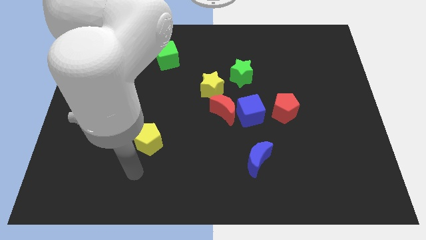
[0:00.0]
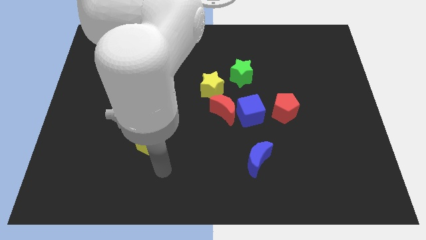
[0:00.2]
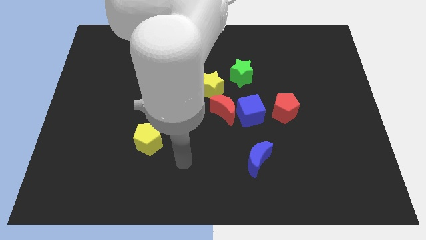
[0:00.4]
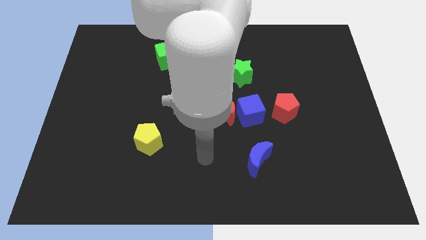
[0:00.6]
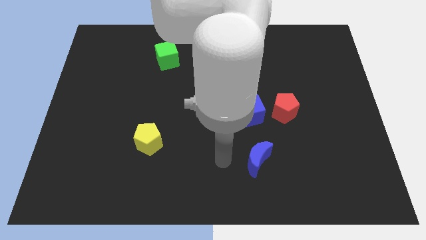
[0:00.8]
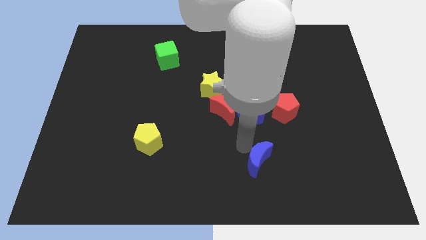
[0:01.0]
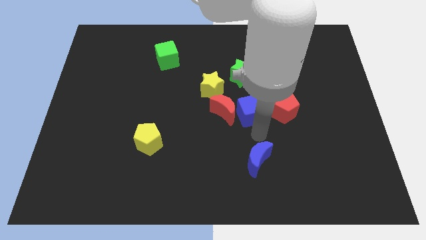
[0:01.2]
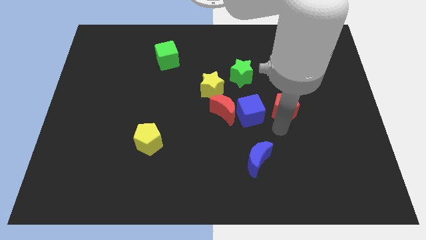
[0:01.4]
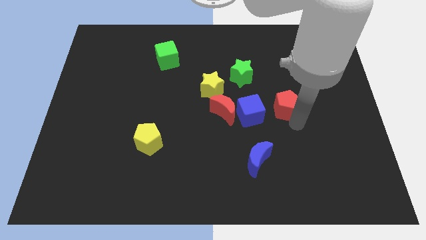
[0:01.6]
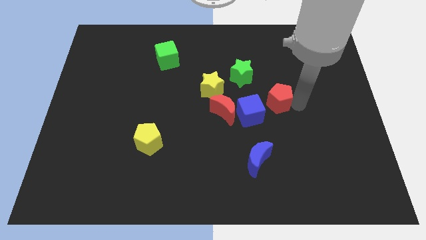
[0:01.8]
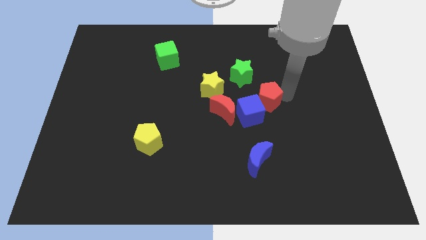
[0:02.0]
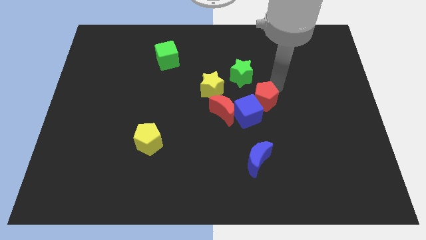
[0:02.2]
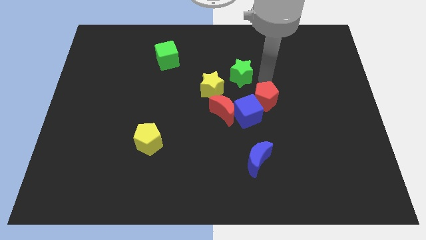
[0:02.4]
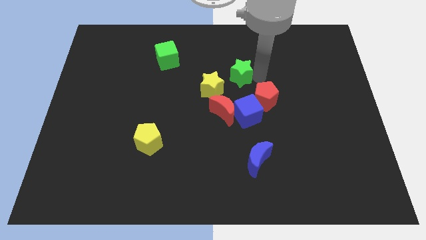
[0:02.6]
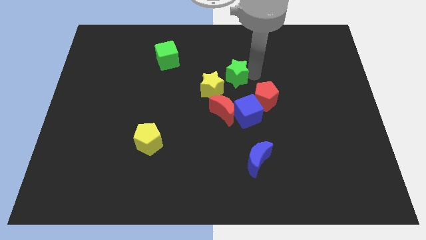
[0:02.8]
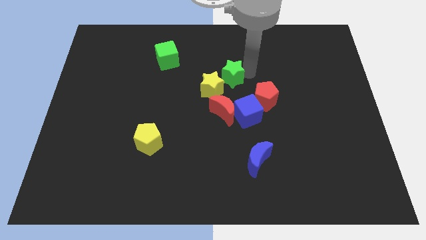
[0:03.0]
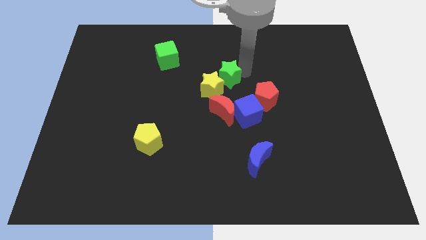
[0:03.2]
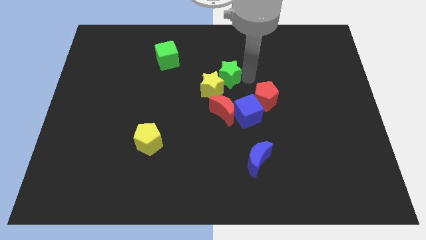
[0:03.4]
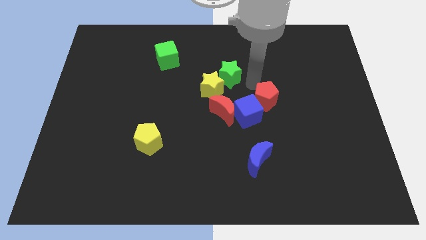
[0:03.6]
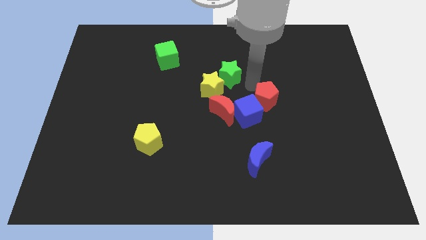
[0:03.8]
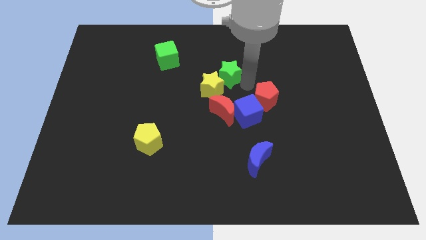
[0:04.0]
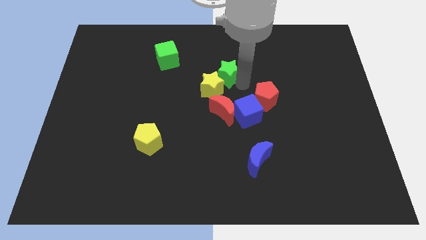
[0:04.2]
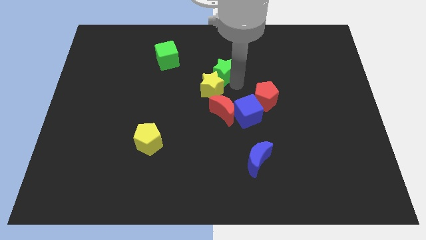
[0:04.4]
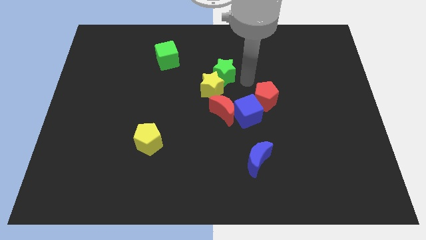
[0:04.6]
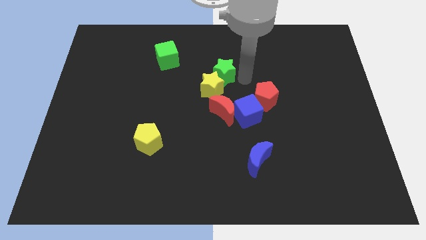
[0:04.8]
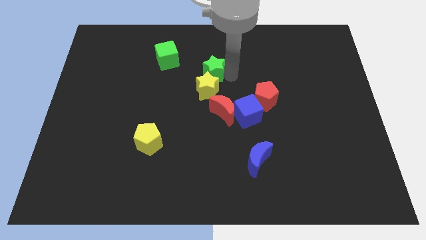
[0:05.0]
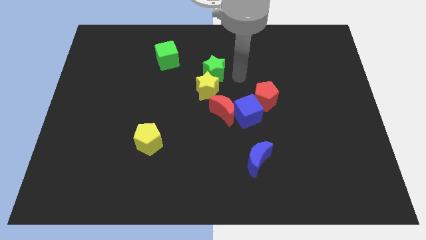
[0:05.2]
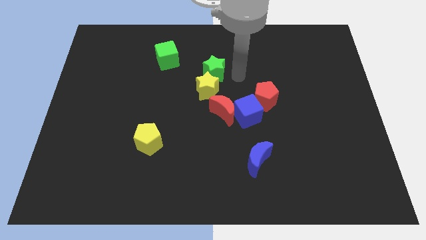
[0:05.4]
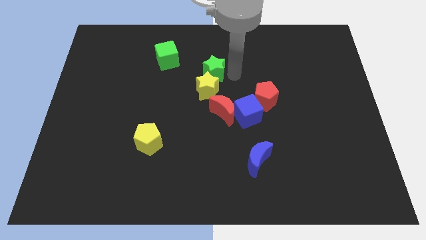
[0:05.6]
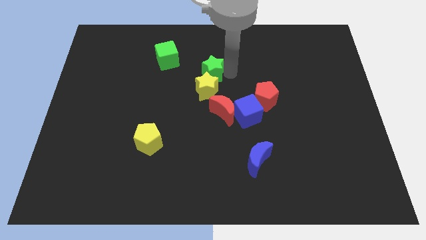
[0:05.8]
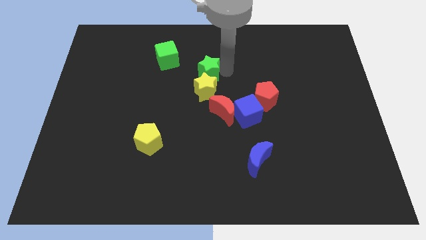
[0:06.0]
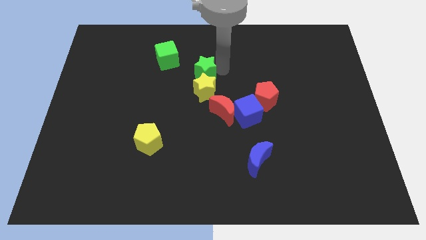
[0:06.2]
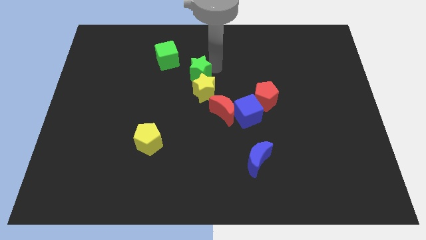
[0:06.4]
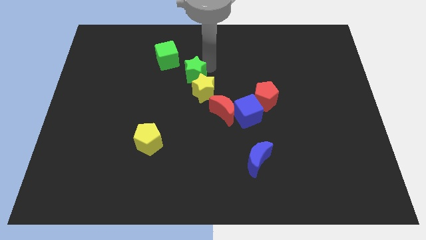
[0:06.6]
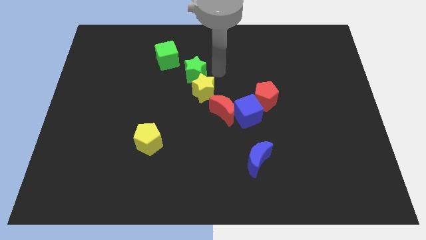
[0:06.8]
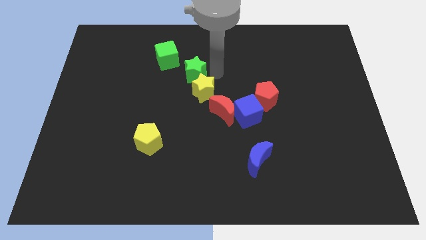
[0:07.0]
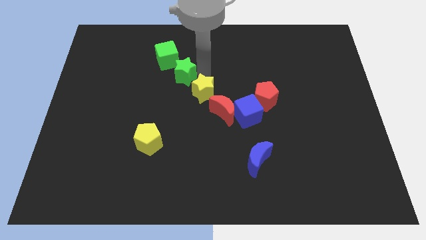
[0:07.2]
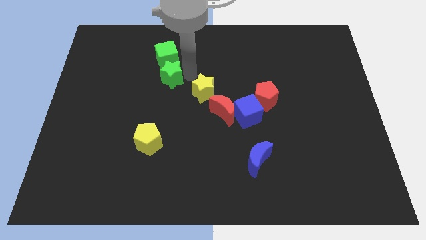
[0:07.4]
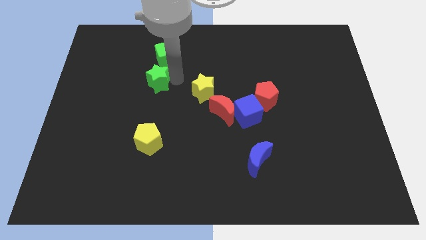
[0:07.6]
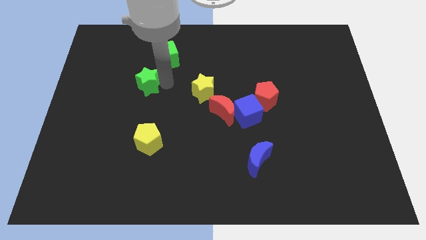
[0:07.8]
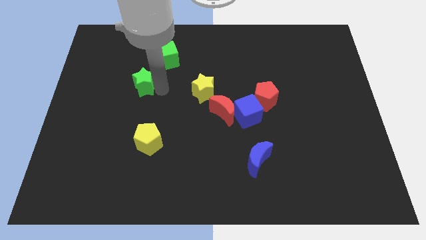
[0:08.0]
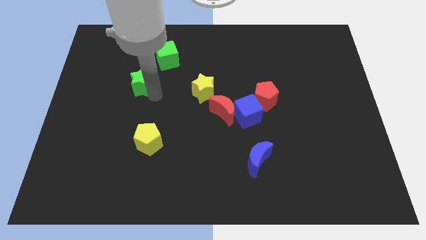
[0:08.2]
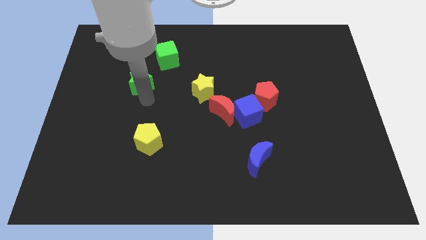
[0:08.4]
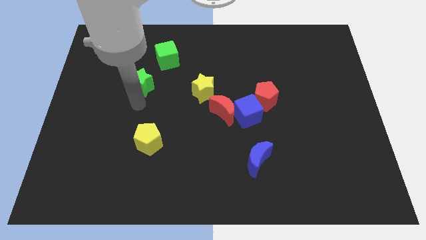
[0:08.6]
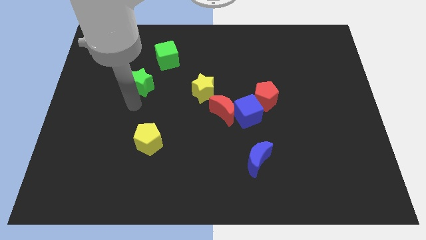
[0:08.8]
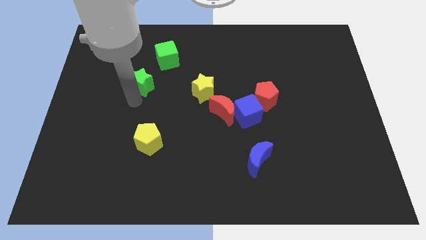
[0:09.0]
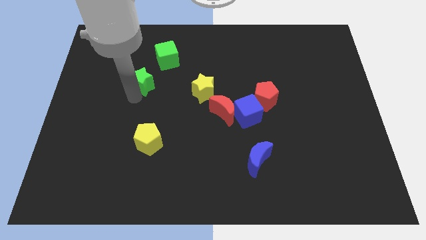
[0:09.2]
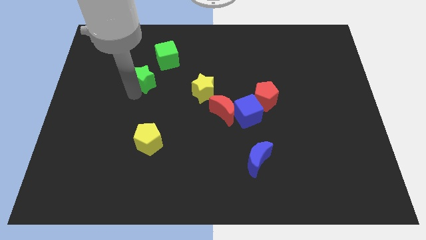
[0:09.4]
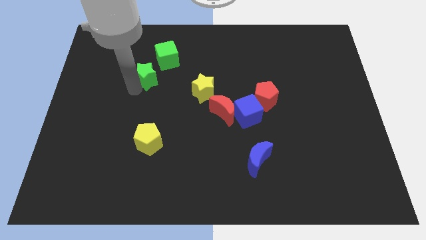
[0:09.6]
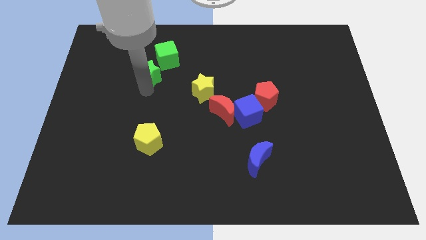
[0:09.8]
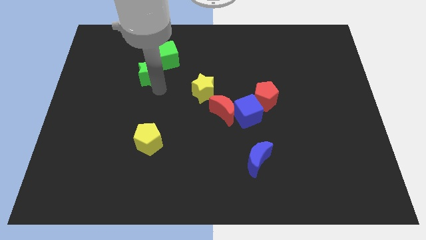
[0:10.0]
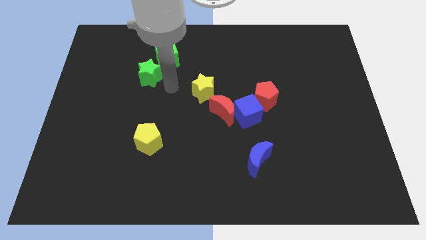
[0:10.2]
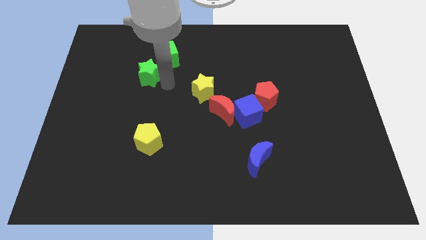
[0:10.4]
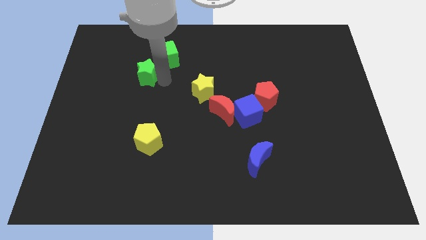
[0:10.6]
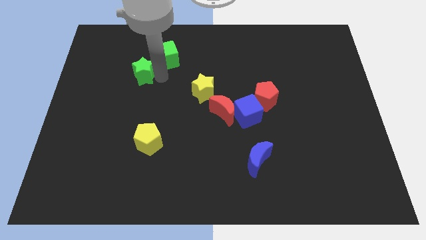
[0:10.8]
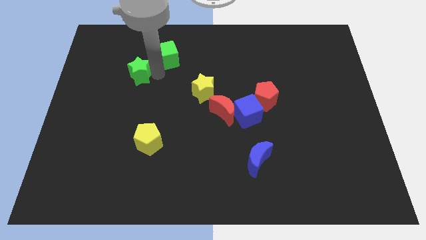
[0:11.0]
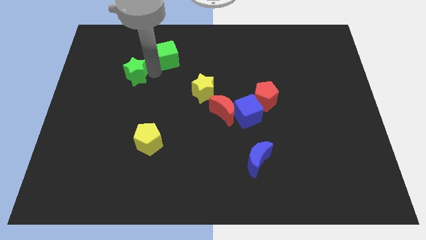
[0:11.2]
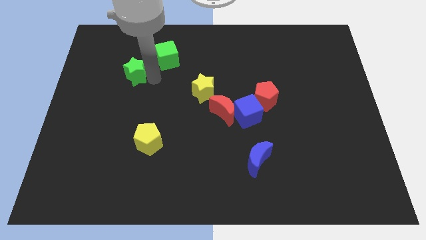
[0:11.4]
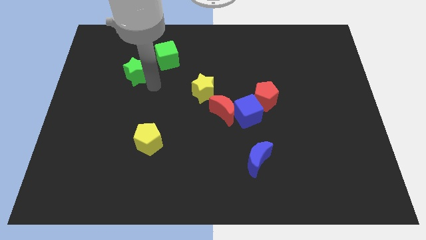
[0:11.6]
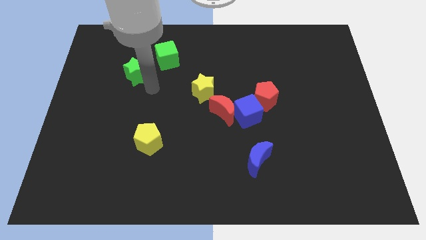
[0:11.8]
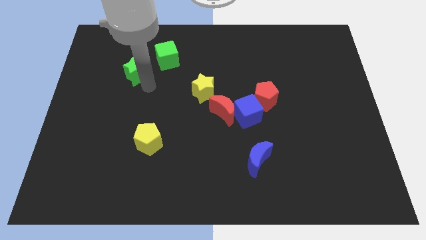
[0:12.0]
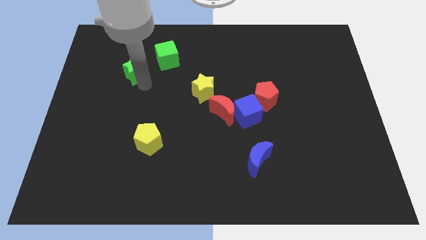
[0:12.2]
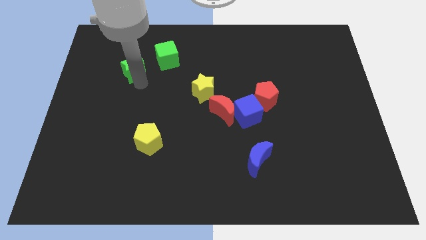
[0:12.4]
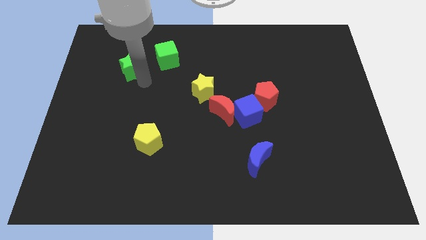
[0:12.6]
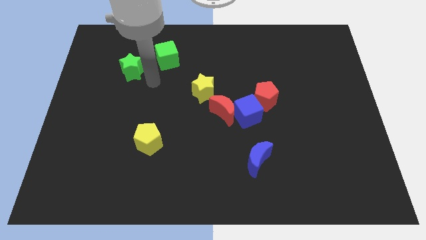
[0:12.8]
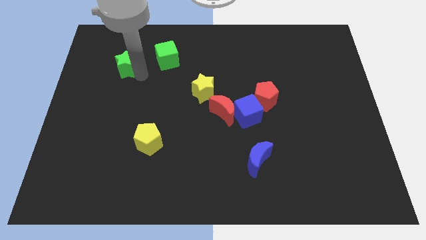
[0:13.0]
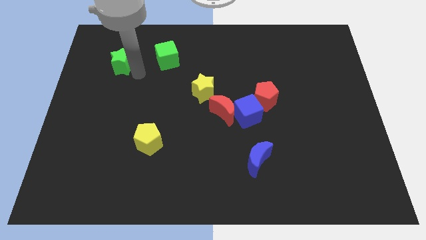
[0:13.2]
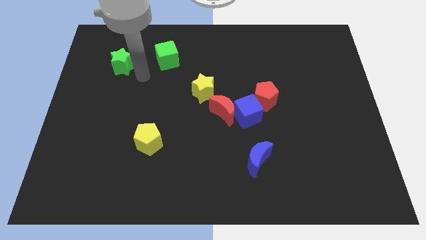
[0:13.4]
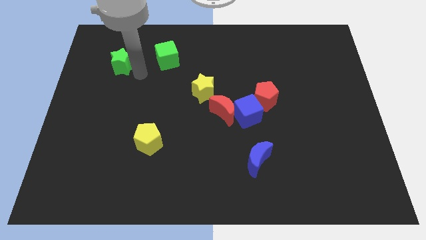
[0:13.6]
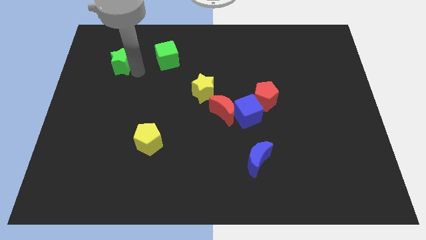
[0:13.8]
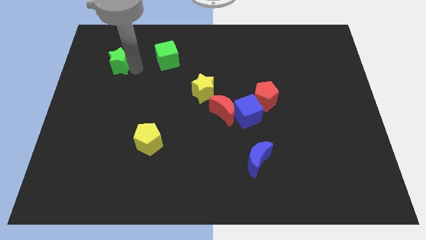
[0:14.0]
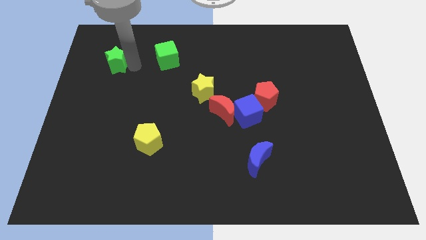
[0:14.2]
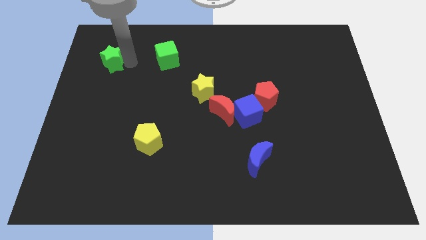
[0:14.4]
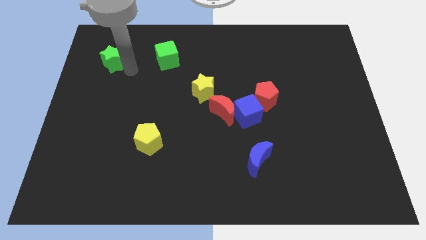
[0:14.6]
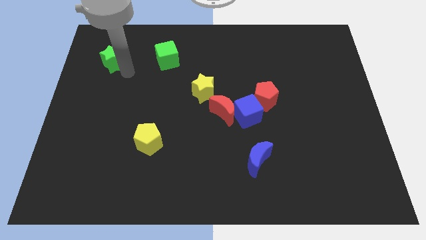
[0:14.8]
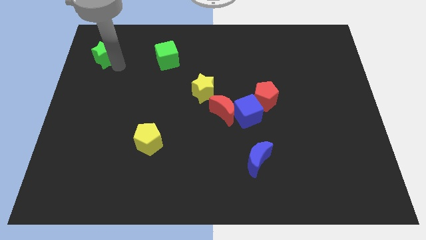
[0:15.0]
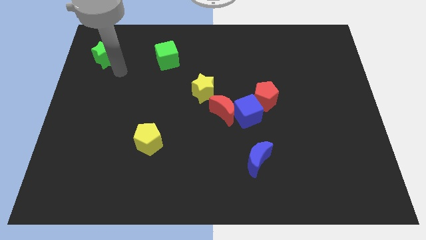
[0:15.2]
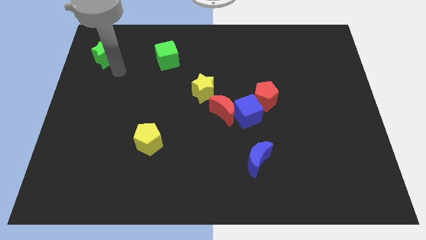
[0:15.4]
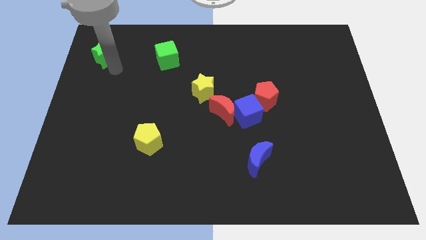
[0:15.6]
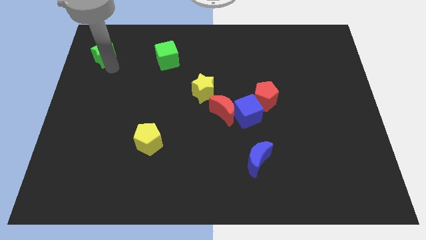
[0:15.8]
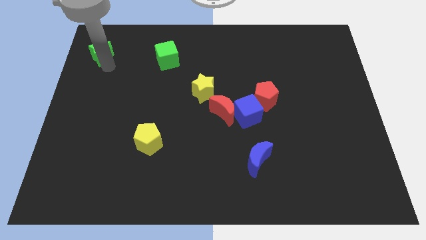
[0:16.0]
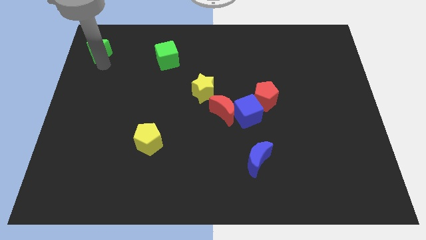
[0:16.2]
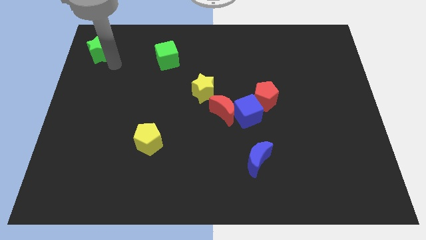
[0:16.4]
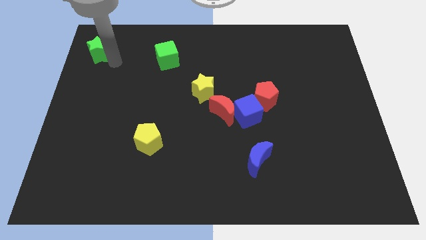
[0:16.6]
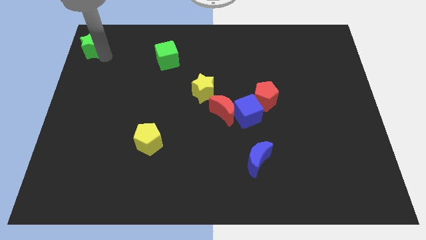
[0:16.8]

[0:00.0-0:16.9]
push the green star to the top left
